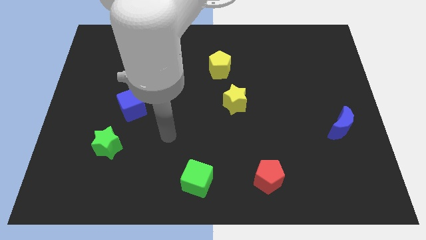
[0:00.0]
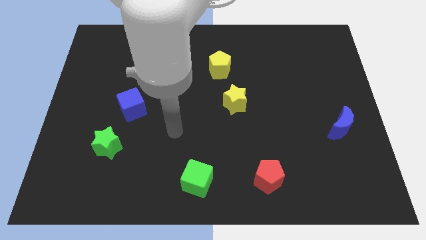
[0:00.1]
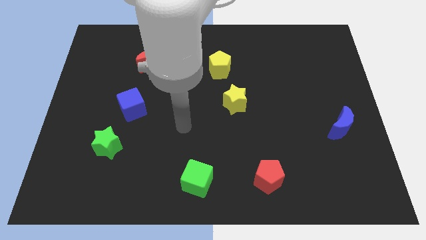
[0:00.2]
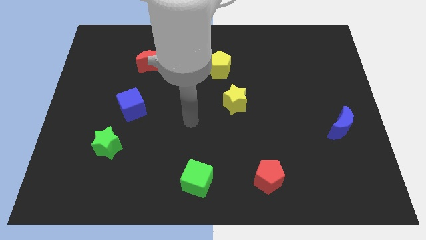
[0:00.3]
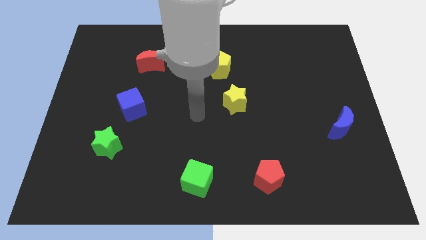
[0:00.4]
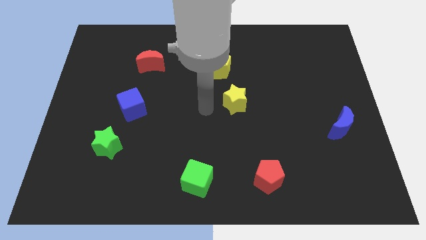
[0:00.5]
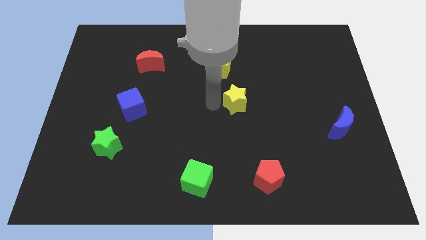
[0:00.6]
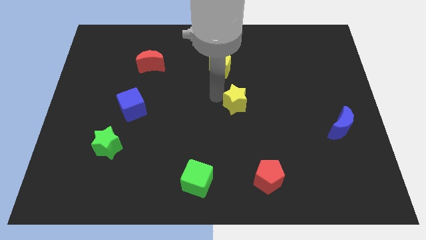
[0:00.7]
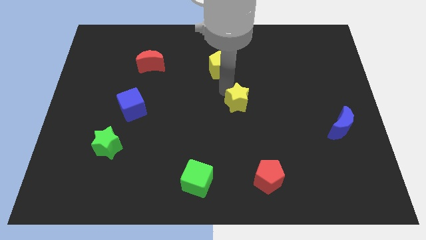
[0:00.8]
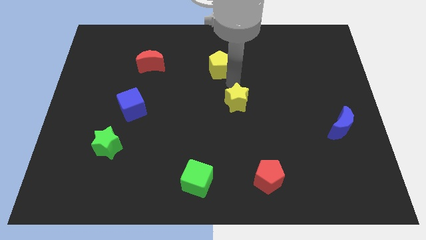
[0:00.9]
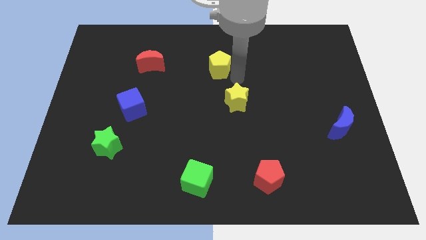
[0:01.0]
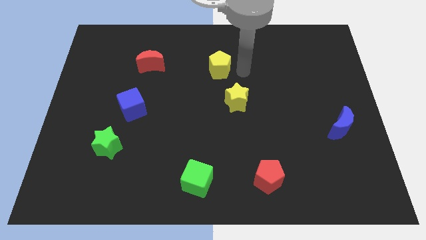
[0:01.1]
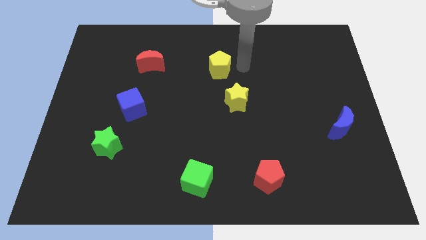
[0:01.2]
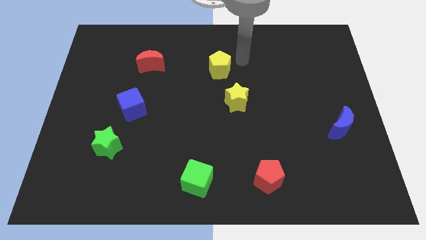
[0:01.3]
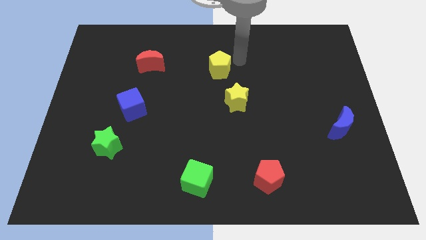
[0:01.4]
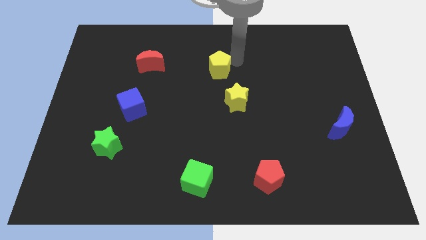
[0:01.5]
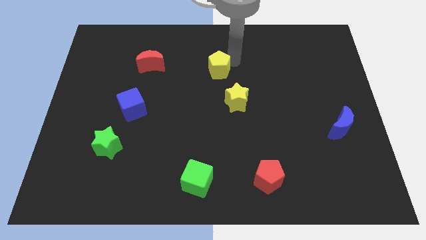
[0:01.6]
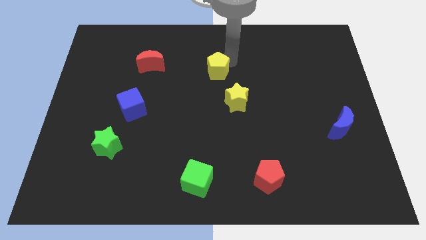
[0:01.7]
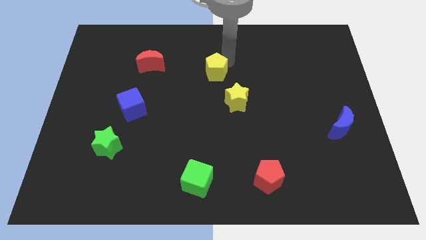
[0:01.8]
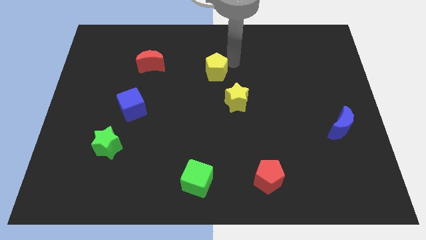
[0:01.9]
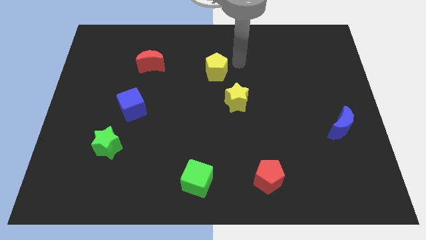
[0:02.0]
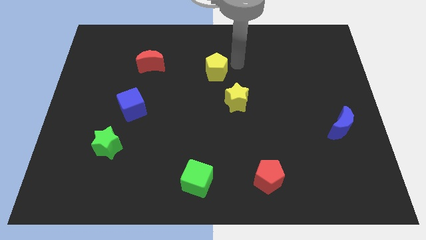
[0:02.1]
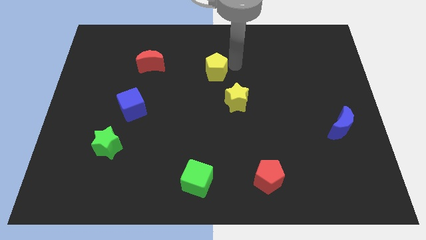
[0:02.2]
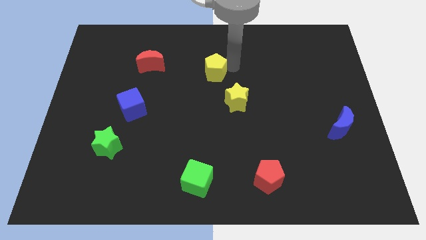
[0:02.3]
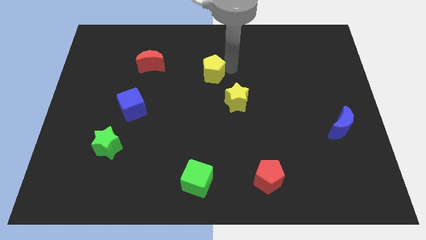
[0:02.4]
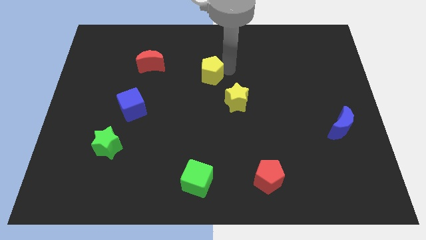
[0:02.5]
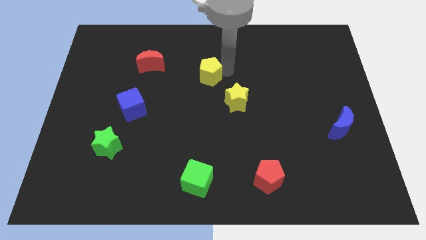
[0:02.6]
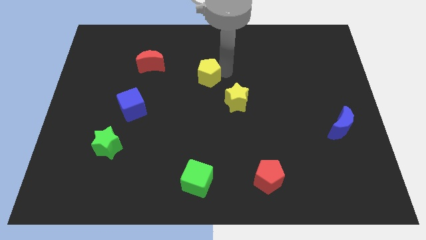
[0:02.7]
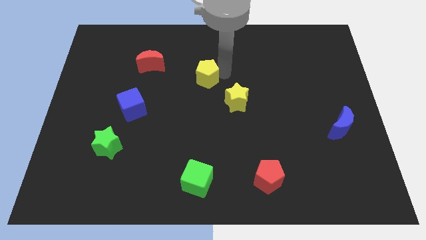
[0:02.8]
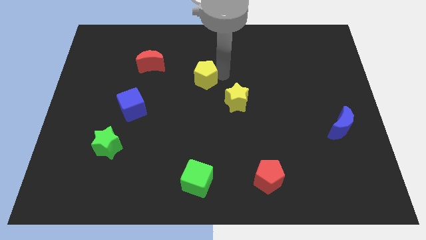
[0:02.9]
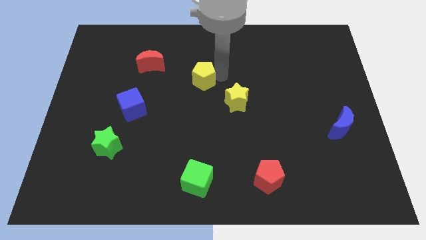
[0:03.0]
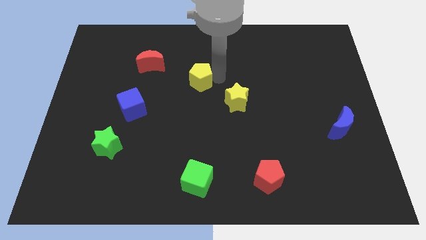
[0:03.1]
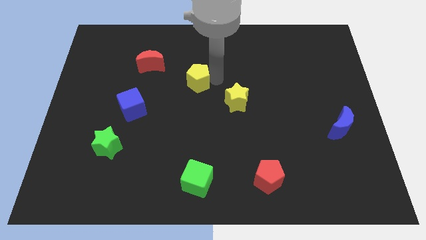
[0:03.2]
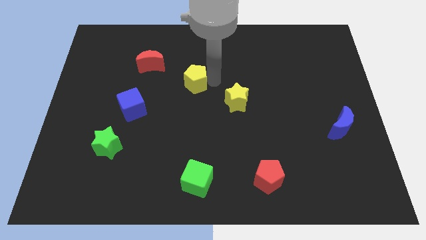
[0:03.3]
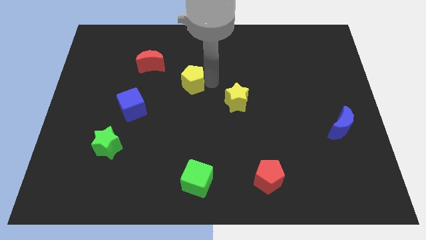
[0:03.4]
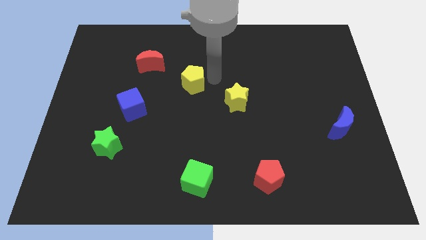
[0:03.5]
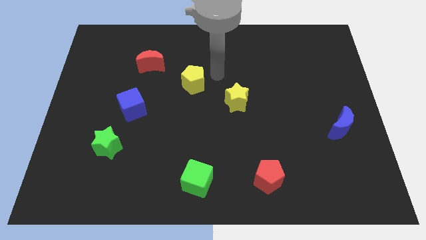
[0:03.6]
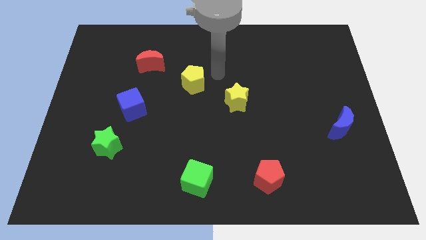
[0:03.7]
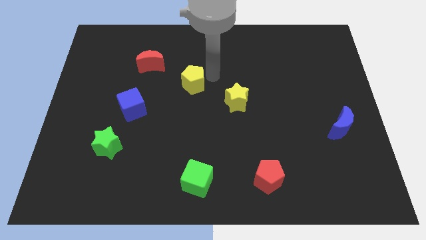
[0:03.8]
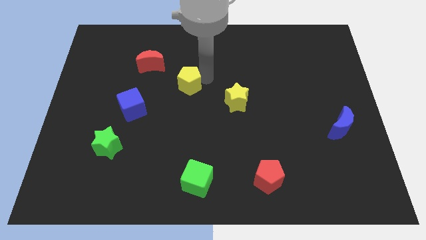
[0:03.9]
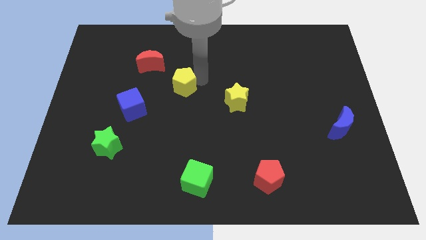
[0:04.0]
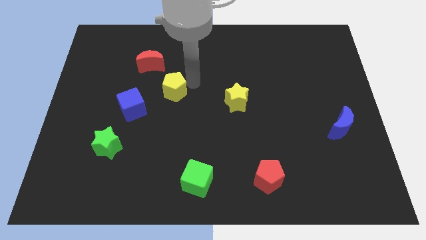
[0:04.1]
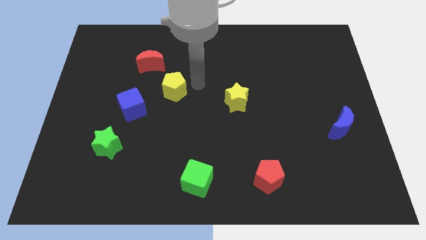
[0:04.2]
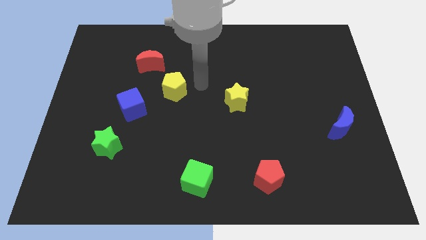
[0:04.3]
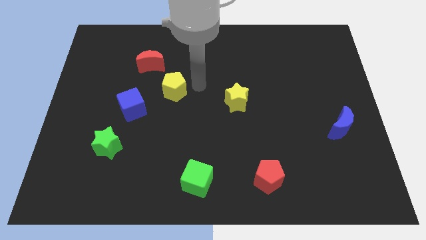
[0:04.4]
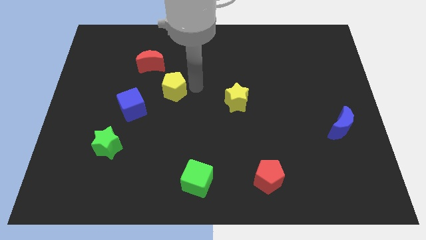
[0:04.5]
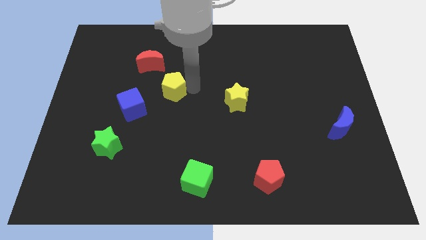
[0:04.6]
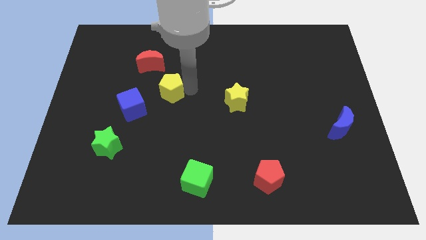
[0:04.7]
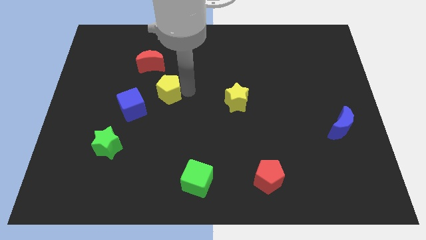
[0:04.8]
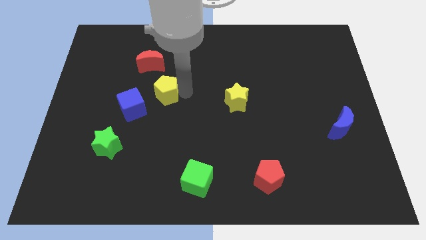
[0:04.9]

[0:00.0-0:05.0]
slide the yellow pentagon below the red moon

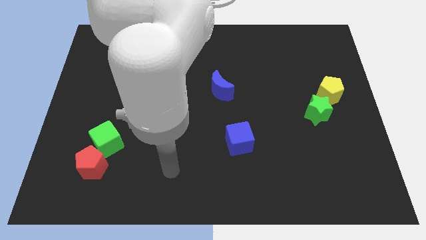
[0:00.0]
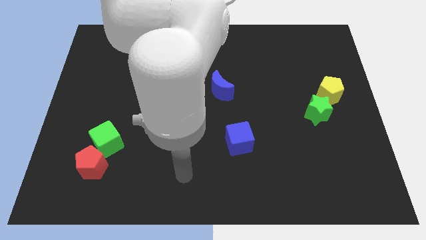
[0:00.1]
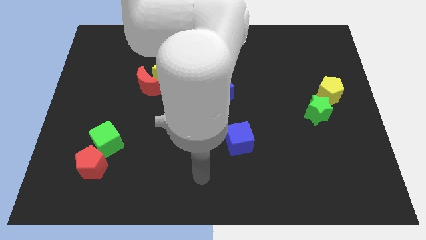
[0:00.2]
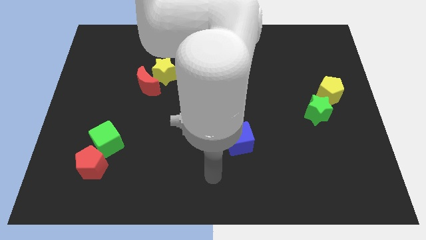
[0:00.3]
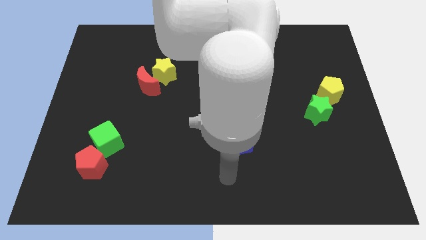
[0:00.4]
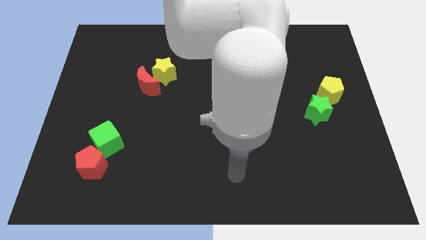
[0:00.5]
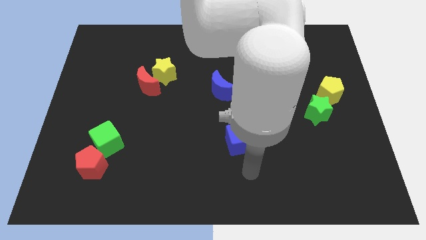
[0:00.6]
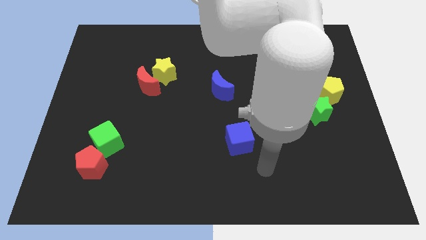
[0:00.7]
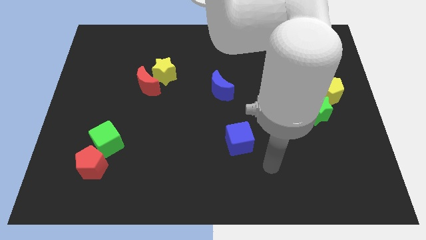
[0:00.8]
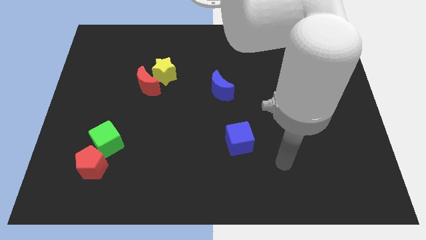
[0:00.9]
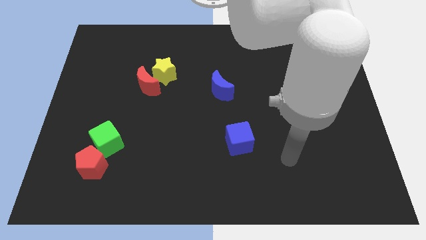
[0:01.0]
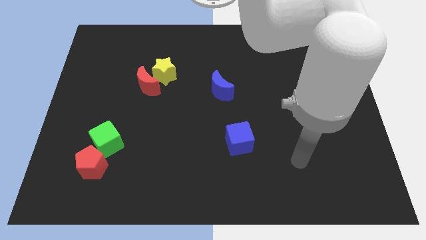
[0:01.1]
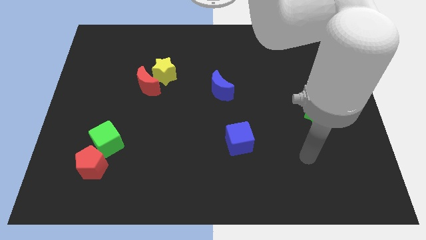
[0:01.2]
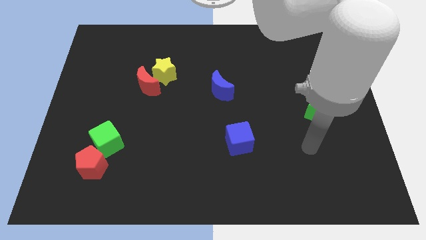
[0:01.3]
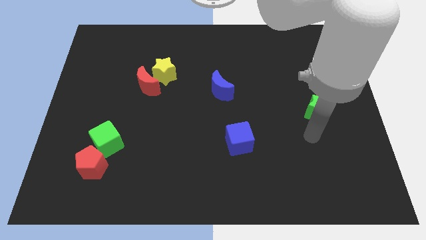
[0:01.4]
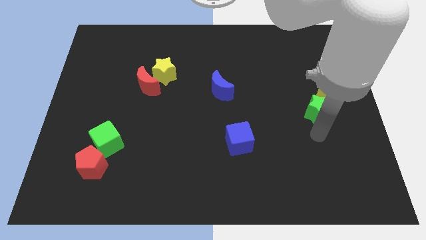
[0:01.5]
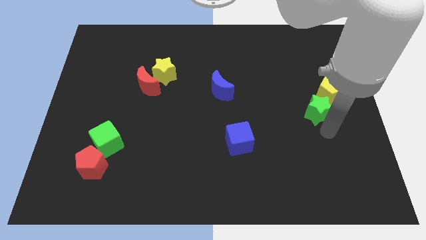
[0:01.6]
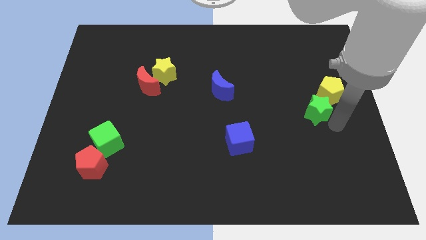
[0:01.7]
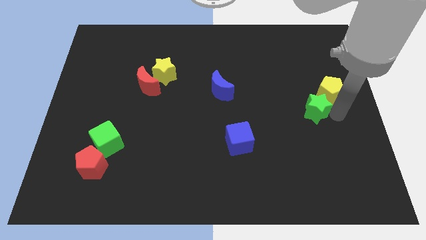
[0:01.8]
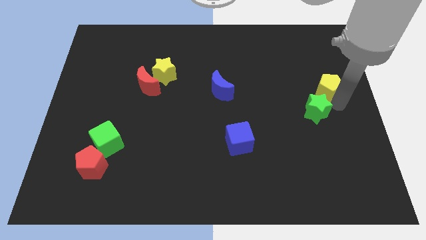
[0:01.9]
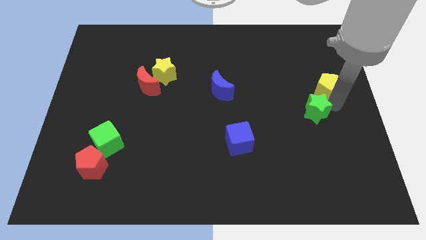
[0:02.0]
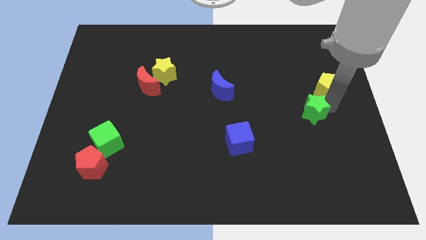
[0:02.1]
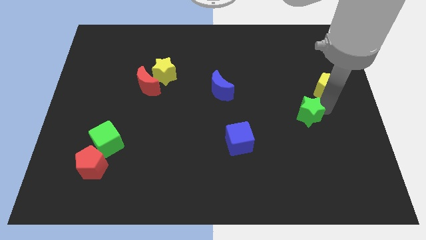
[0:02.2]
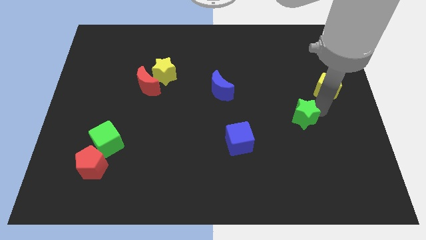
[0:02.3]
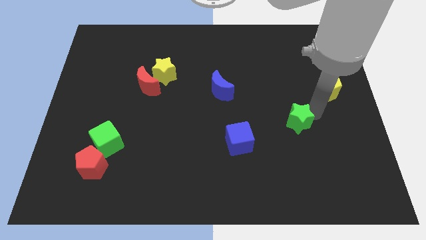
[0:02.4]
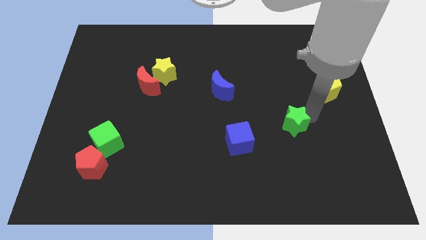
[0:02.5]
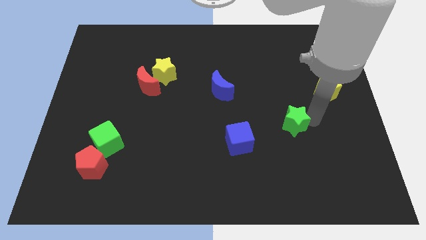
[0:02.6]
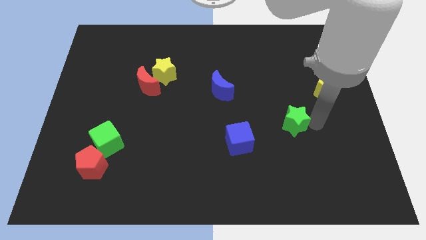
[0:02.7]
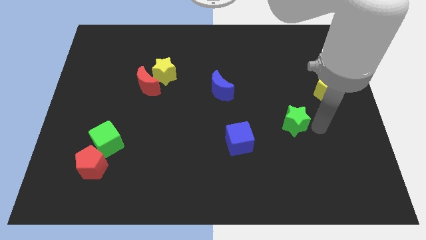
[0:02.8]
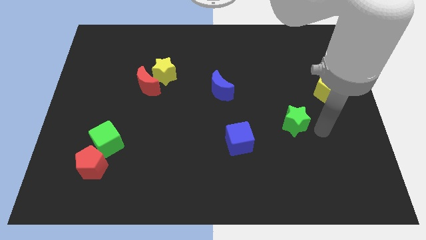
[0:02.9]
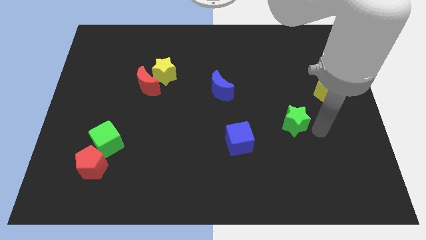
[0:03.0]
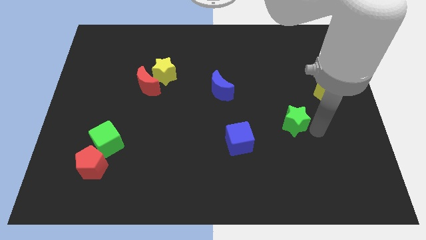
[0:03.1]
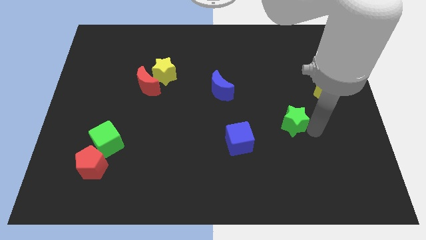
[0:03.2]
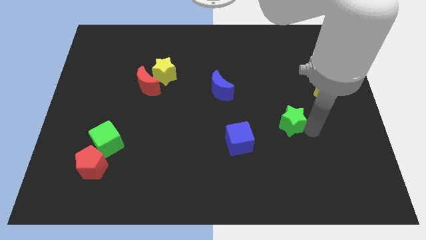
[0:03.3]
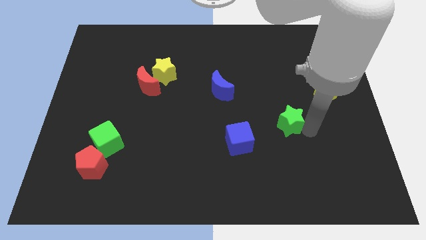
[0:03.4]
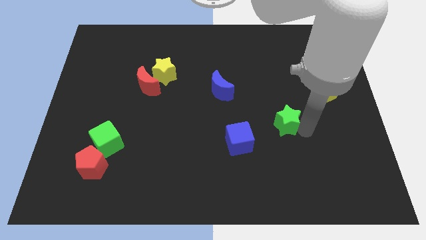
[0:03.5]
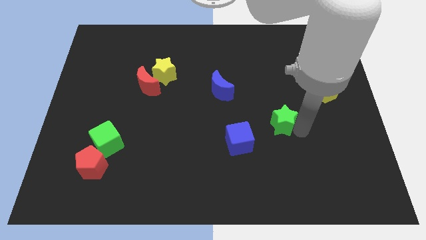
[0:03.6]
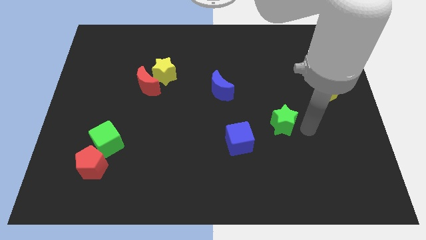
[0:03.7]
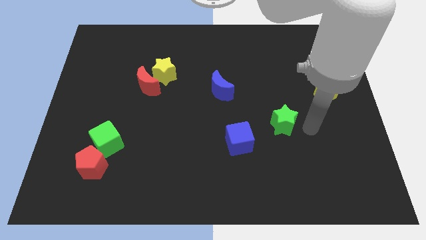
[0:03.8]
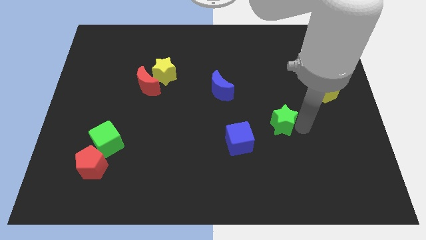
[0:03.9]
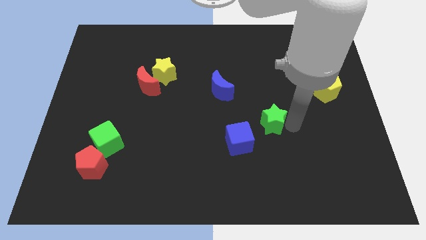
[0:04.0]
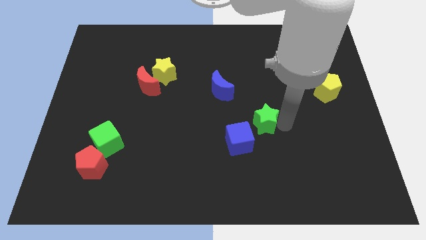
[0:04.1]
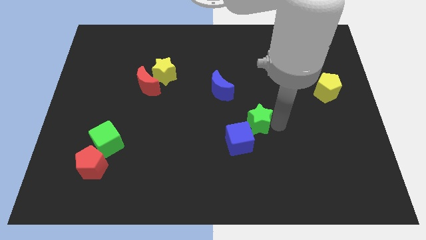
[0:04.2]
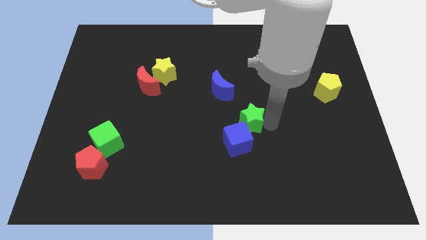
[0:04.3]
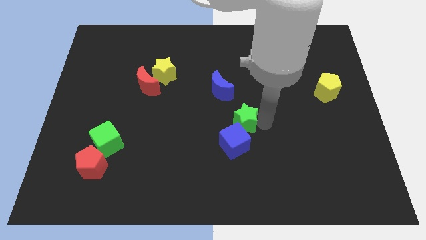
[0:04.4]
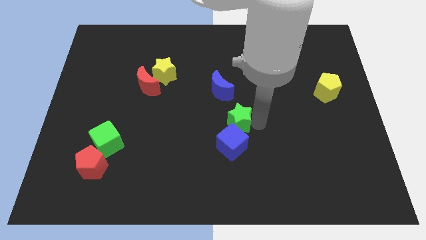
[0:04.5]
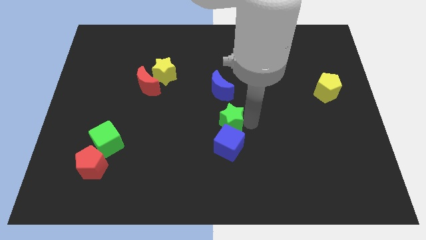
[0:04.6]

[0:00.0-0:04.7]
slide the green star to the top left side of the blue cube
